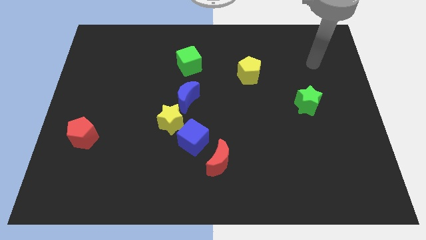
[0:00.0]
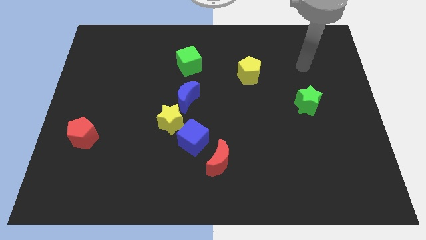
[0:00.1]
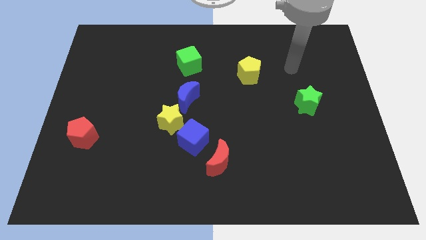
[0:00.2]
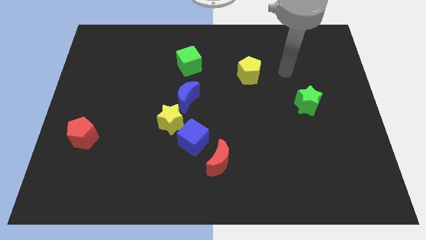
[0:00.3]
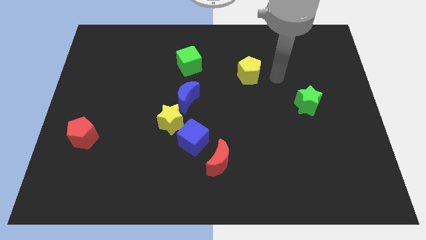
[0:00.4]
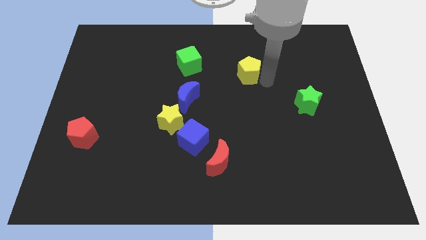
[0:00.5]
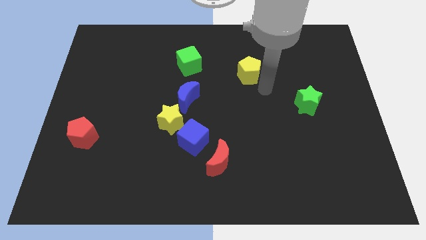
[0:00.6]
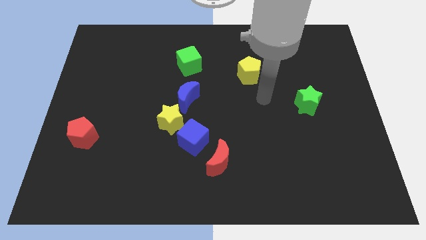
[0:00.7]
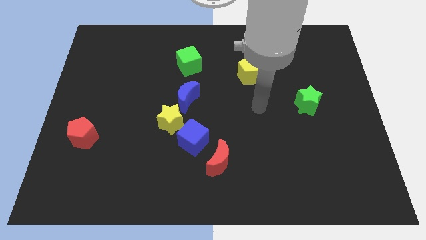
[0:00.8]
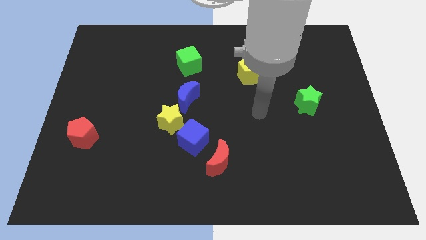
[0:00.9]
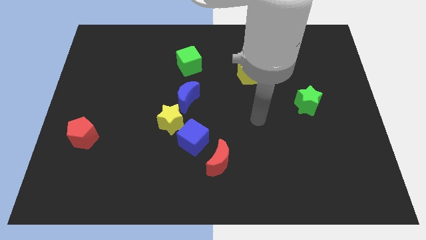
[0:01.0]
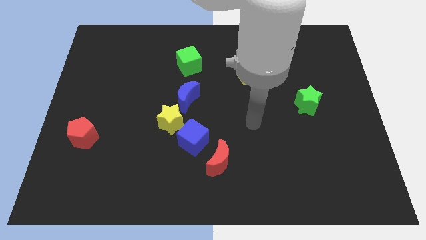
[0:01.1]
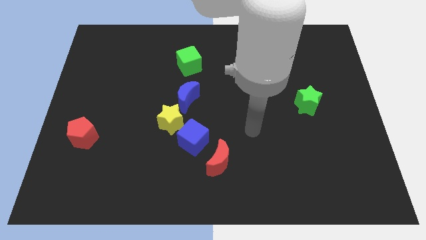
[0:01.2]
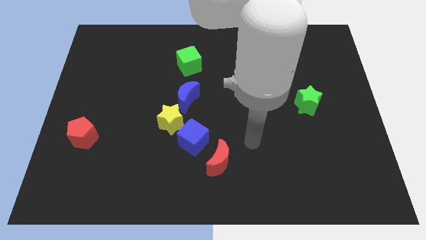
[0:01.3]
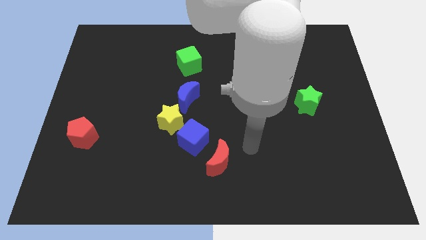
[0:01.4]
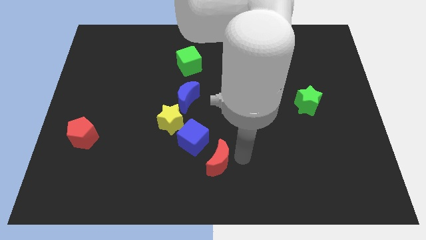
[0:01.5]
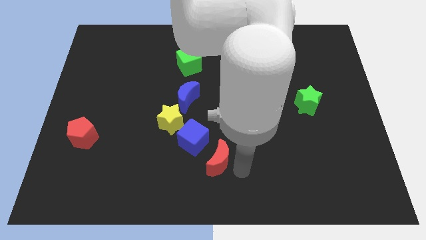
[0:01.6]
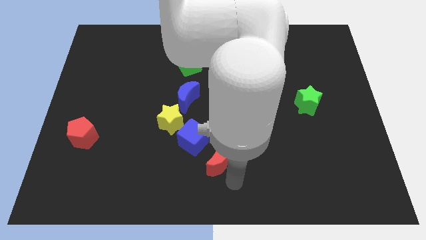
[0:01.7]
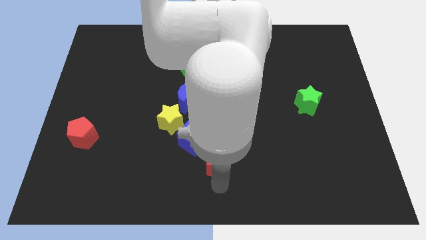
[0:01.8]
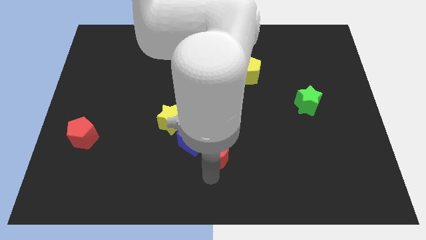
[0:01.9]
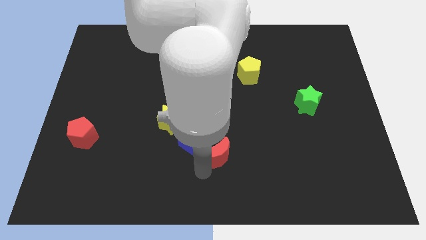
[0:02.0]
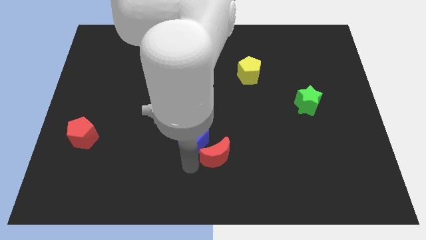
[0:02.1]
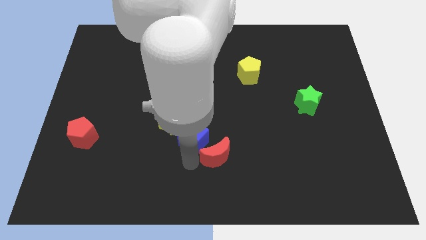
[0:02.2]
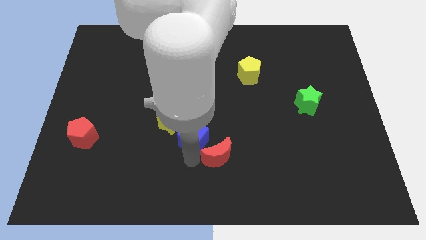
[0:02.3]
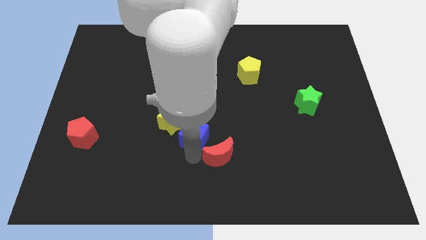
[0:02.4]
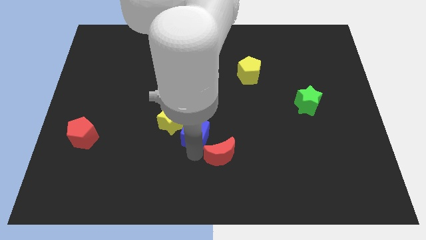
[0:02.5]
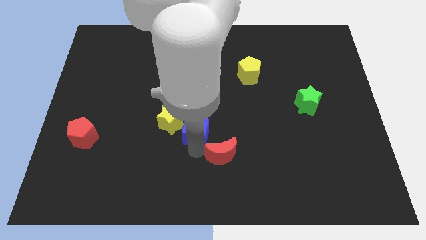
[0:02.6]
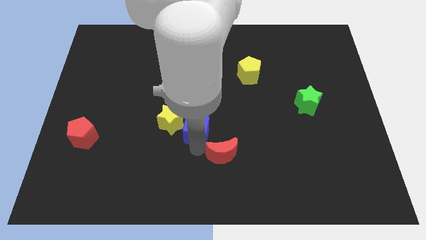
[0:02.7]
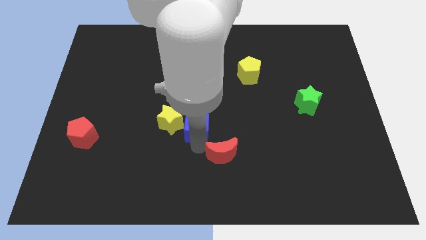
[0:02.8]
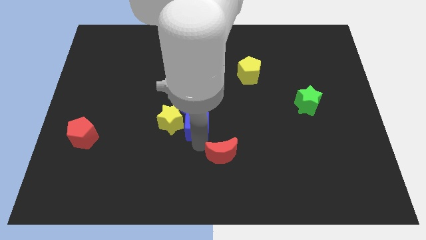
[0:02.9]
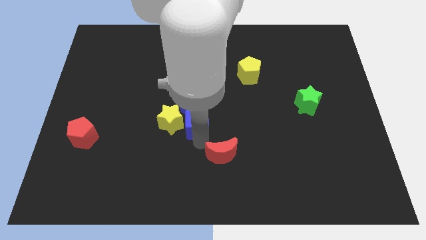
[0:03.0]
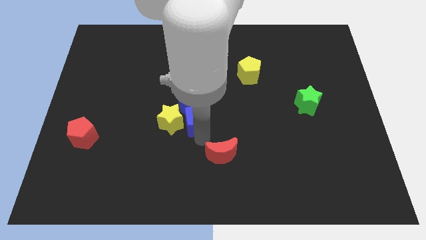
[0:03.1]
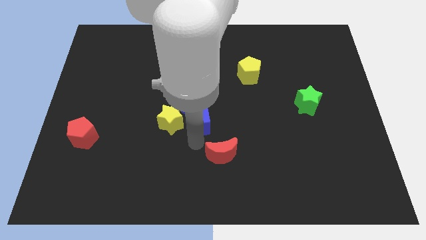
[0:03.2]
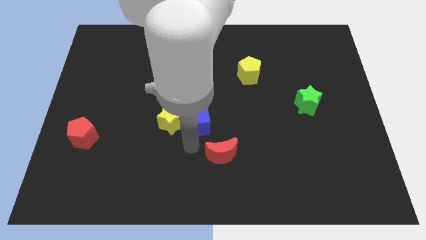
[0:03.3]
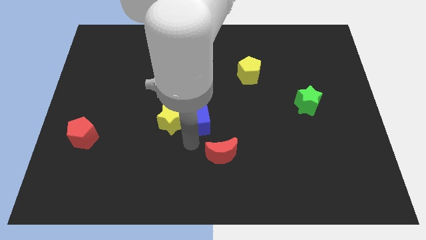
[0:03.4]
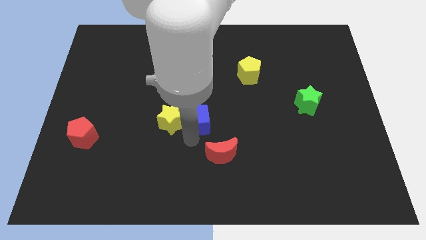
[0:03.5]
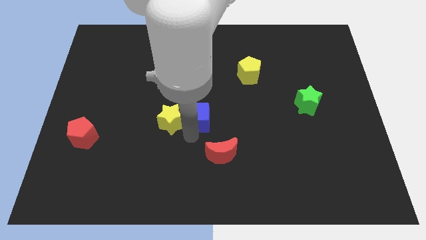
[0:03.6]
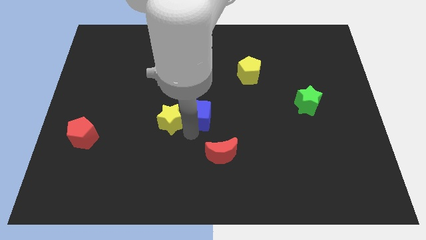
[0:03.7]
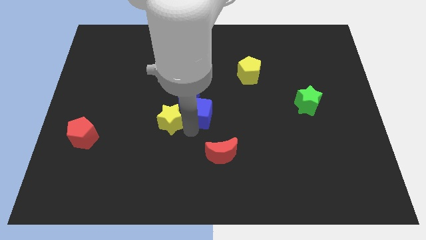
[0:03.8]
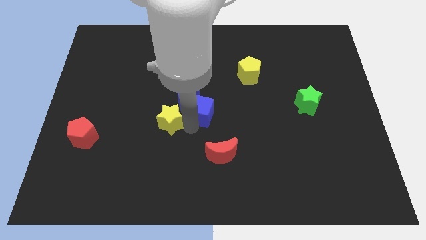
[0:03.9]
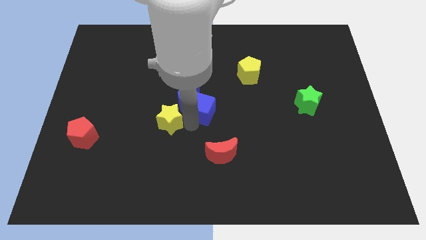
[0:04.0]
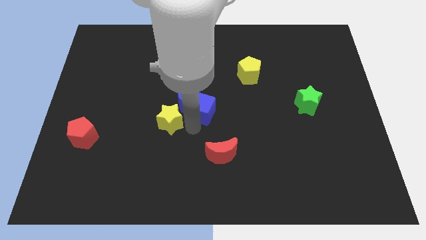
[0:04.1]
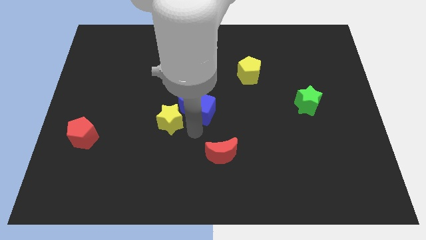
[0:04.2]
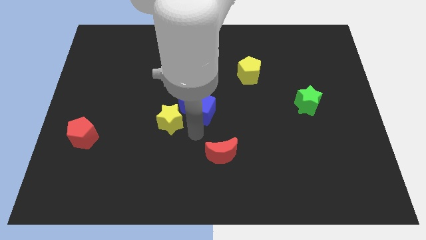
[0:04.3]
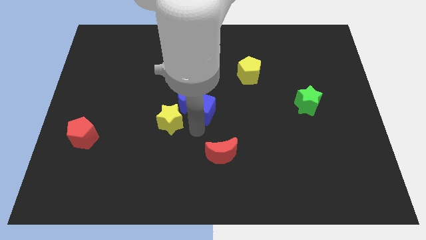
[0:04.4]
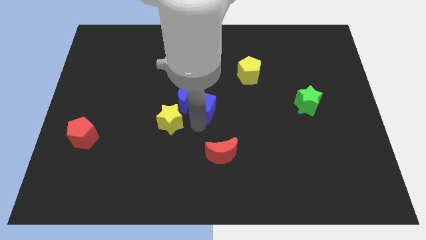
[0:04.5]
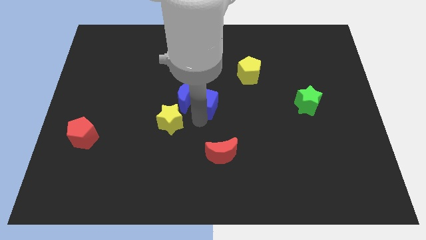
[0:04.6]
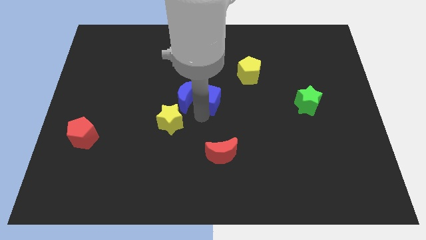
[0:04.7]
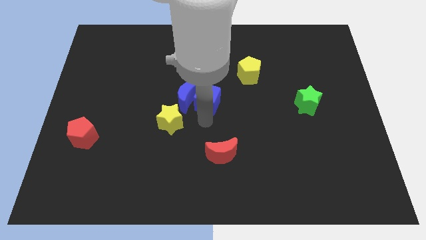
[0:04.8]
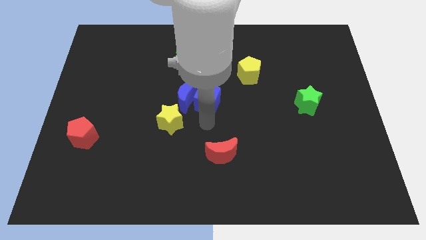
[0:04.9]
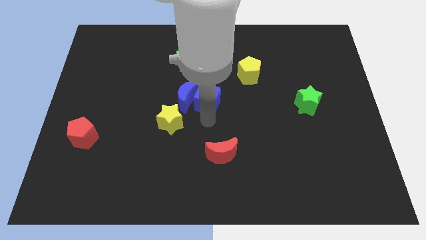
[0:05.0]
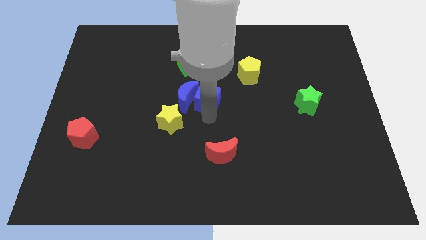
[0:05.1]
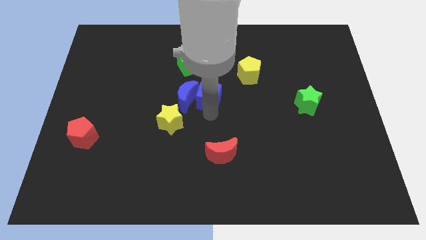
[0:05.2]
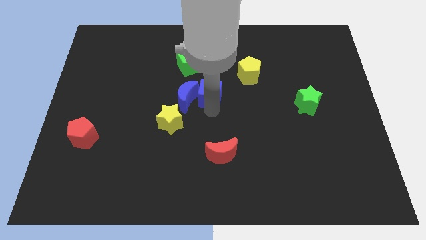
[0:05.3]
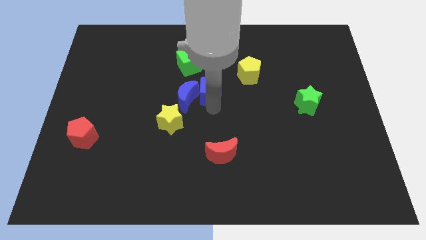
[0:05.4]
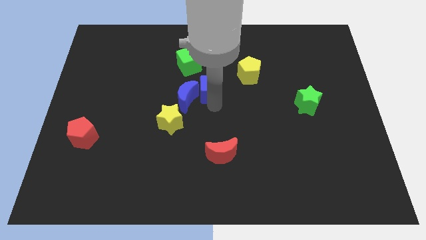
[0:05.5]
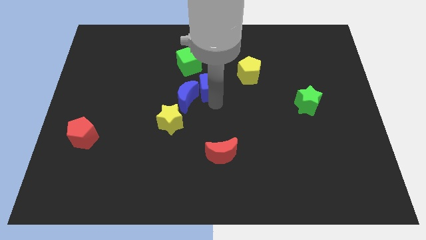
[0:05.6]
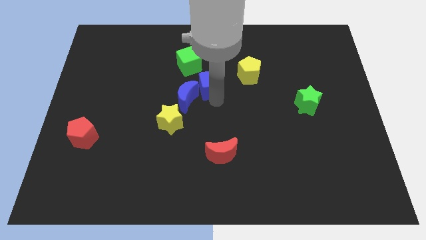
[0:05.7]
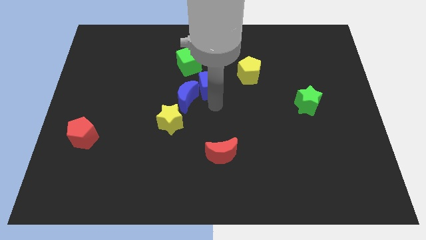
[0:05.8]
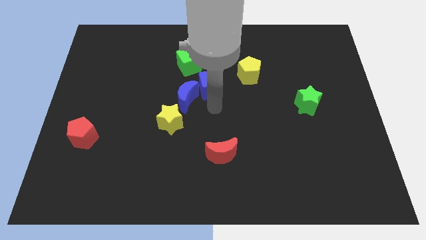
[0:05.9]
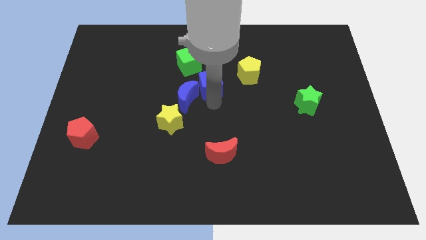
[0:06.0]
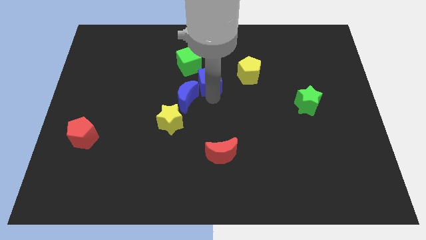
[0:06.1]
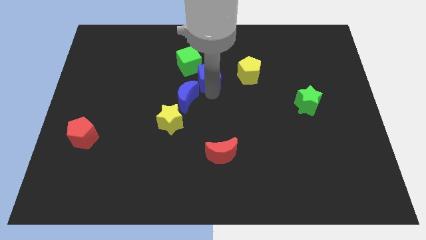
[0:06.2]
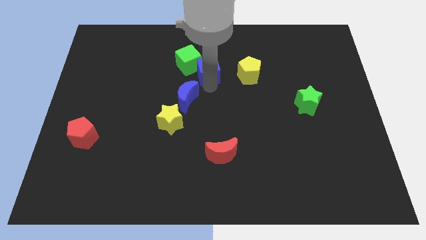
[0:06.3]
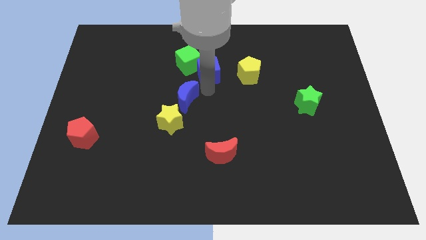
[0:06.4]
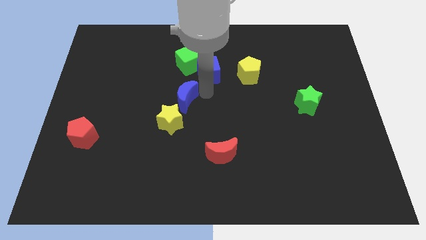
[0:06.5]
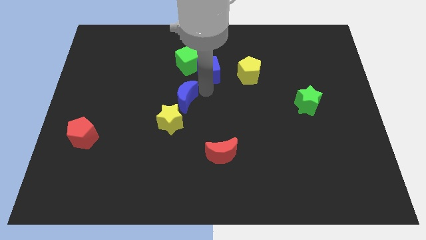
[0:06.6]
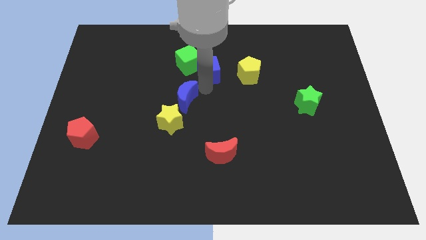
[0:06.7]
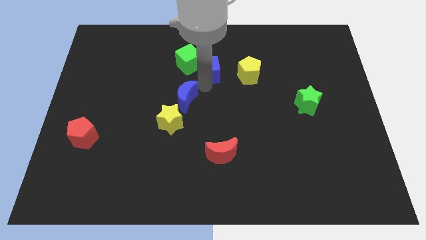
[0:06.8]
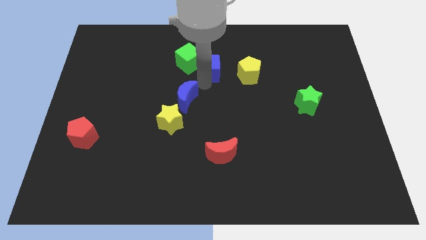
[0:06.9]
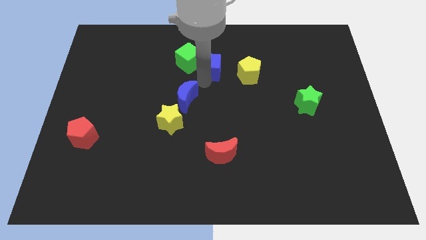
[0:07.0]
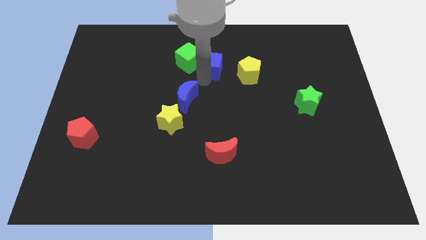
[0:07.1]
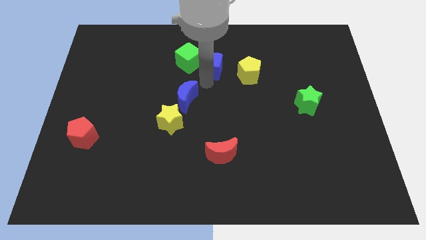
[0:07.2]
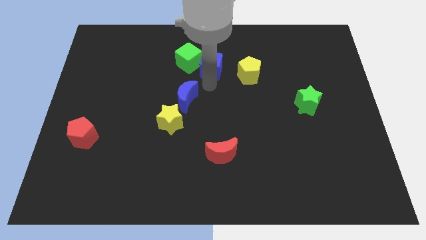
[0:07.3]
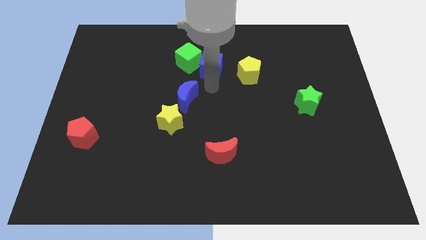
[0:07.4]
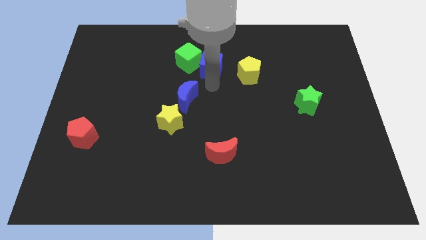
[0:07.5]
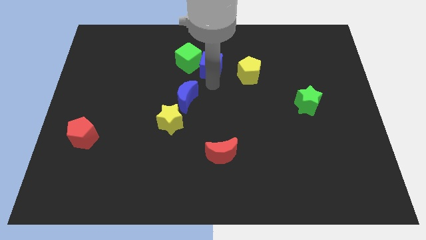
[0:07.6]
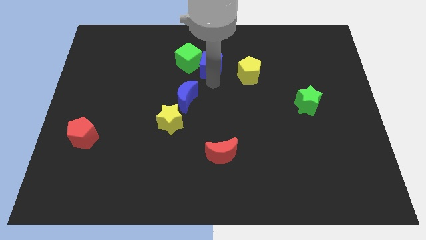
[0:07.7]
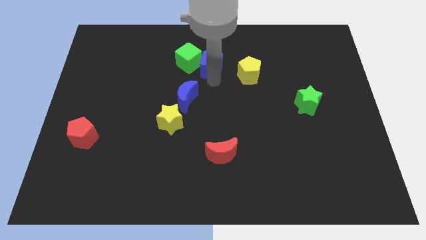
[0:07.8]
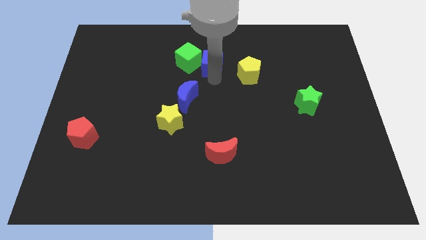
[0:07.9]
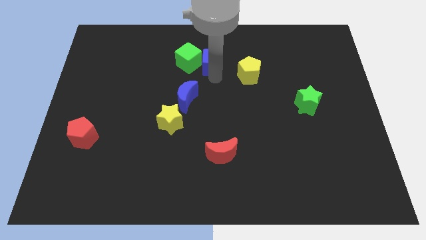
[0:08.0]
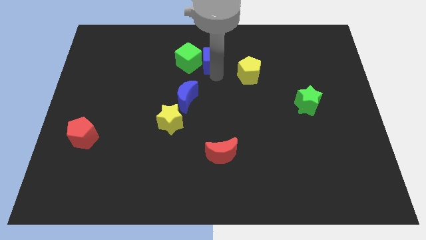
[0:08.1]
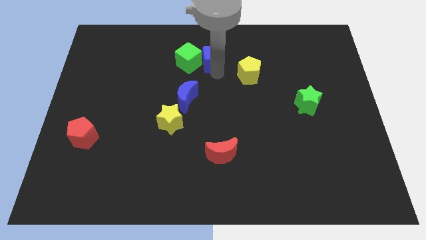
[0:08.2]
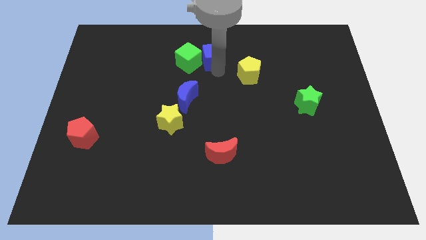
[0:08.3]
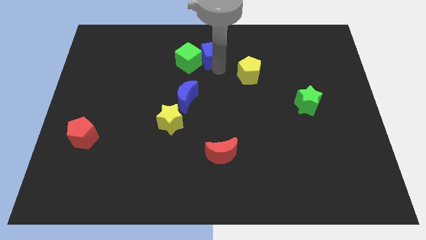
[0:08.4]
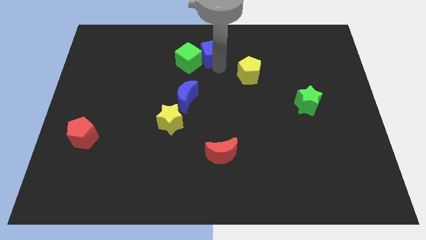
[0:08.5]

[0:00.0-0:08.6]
put the blue cube to the top
